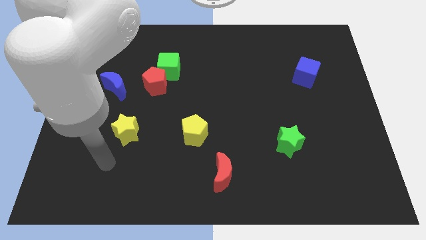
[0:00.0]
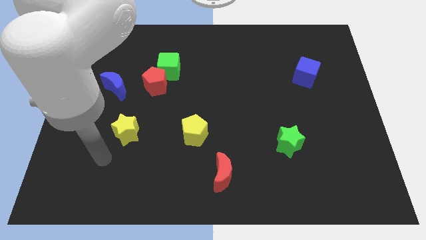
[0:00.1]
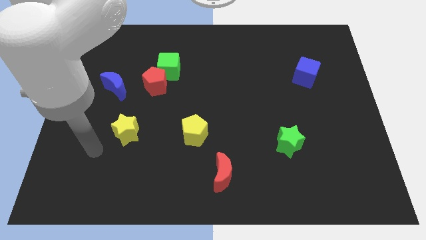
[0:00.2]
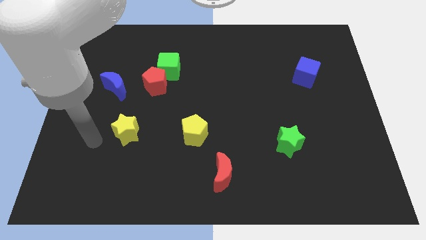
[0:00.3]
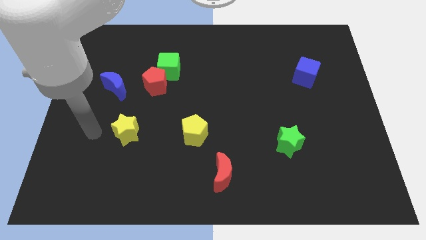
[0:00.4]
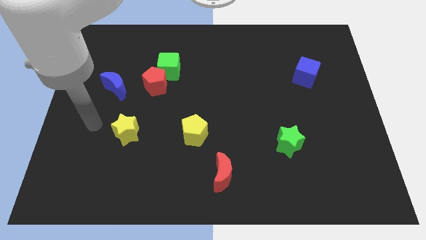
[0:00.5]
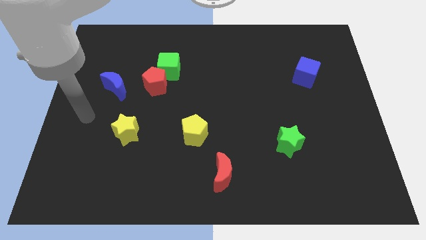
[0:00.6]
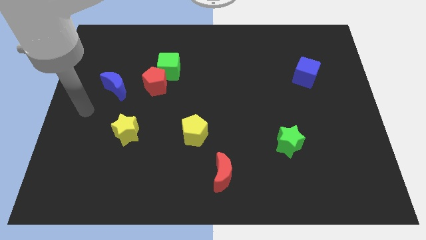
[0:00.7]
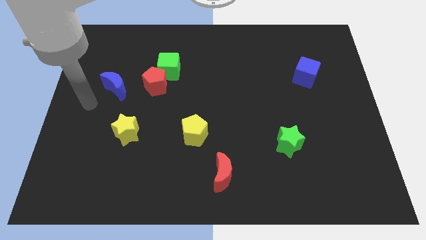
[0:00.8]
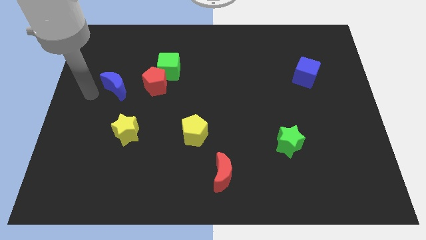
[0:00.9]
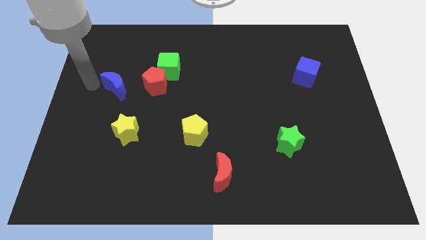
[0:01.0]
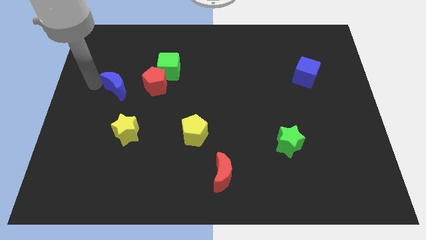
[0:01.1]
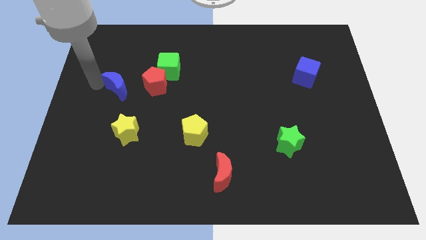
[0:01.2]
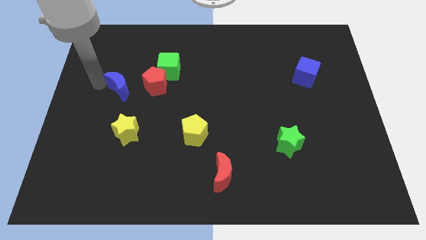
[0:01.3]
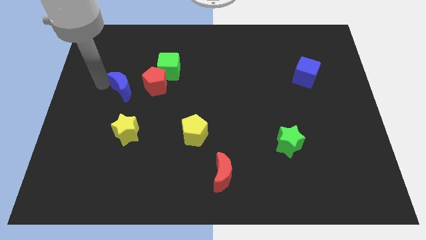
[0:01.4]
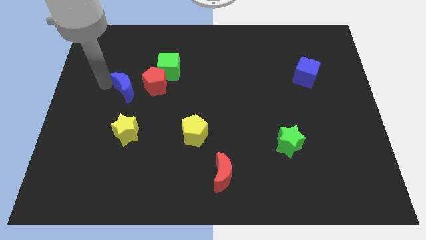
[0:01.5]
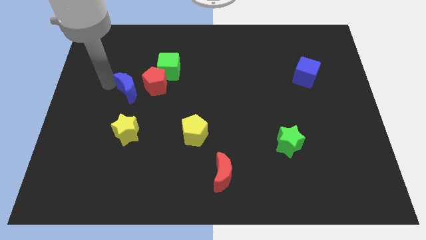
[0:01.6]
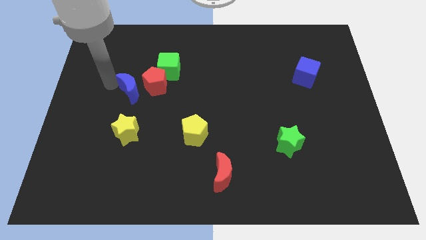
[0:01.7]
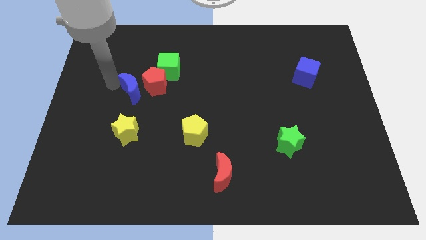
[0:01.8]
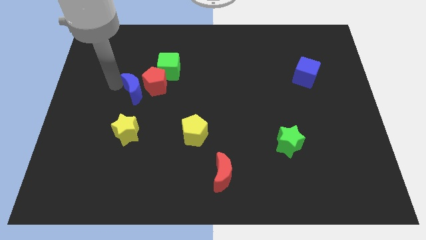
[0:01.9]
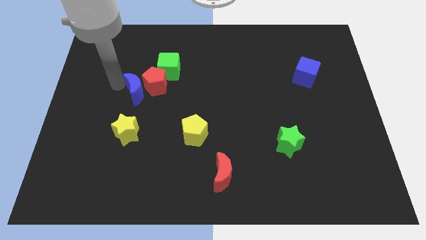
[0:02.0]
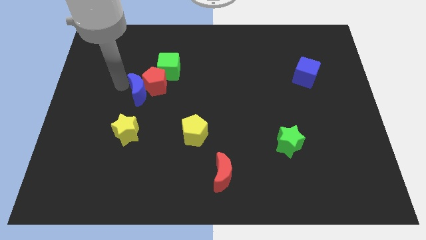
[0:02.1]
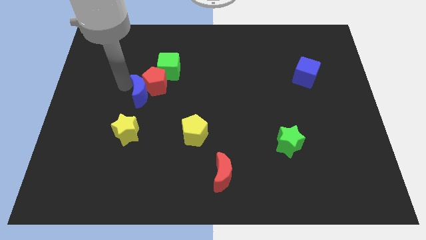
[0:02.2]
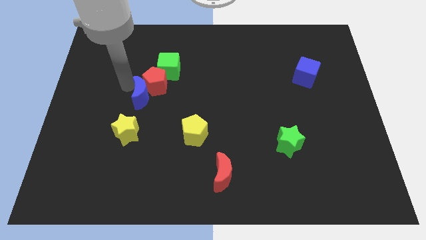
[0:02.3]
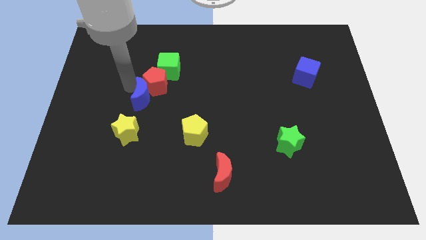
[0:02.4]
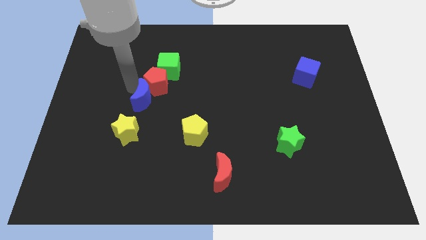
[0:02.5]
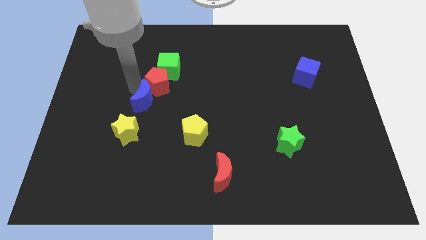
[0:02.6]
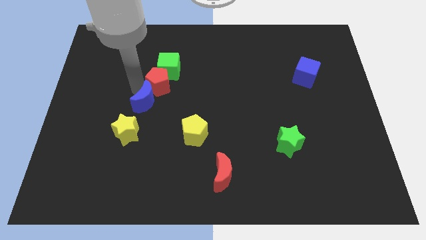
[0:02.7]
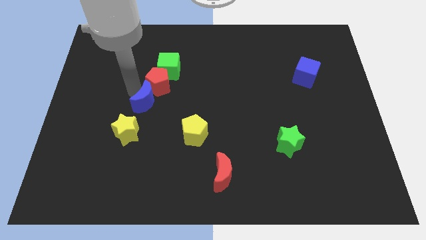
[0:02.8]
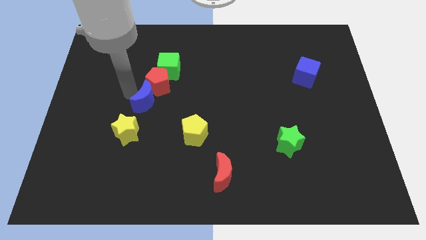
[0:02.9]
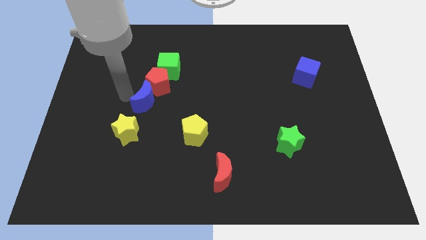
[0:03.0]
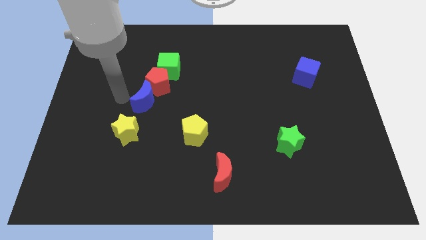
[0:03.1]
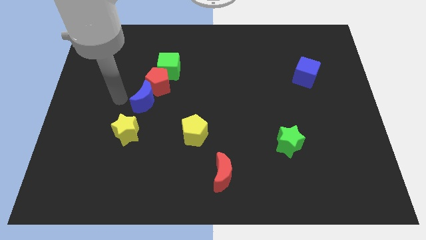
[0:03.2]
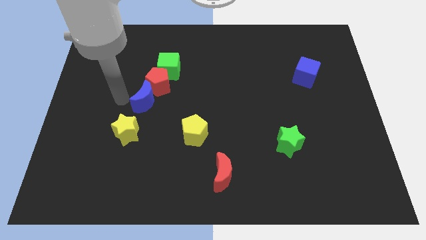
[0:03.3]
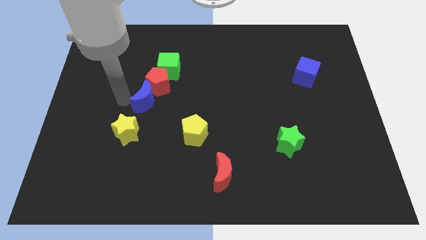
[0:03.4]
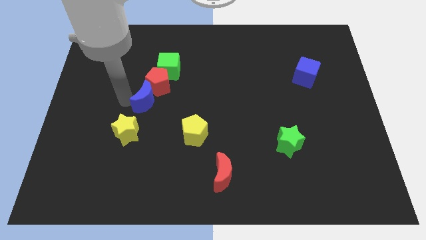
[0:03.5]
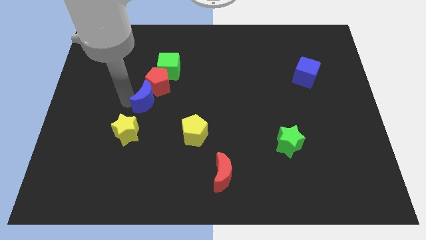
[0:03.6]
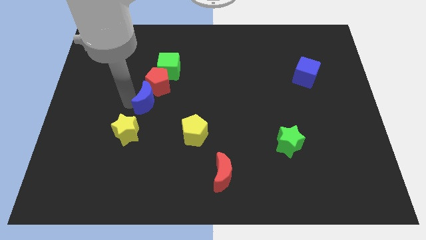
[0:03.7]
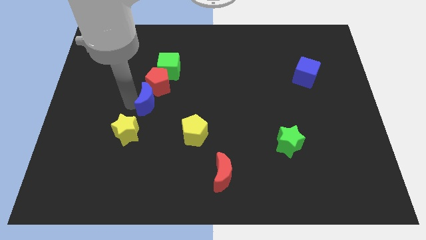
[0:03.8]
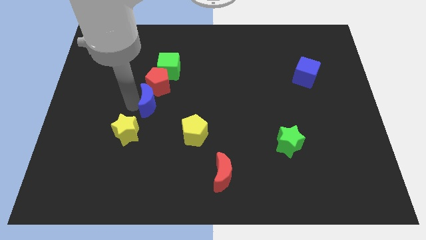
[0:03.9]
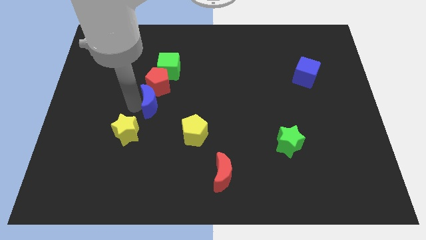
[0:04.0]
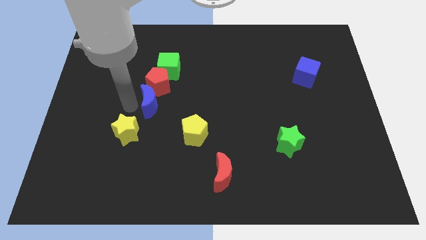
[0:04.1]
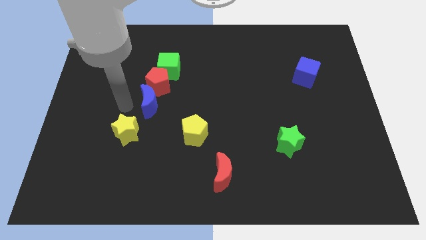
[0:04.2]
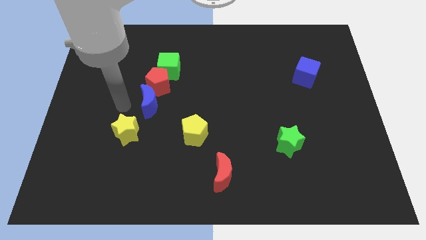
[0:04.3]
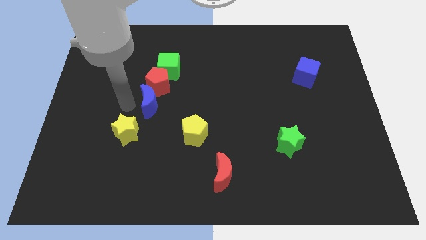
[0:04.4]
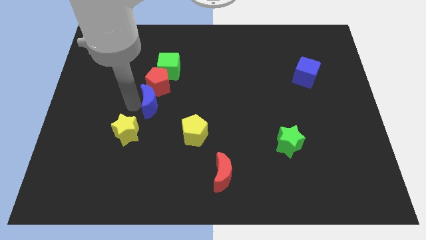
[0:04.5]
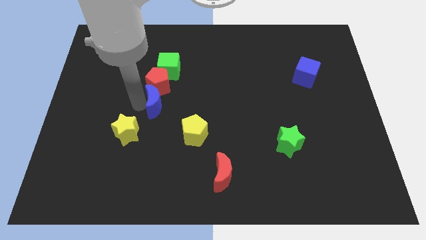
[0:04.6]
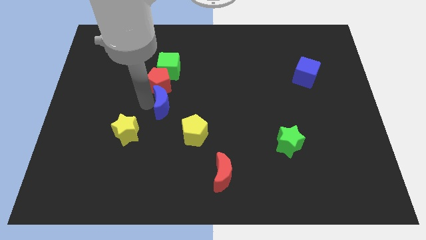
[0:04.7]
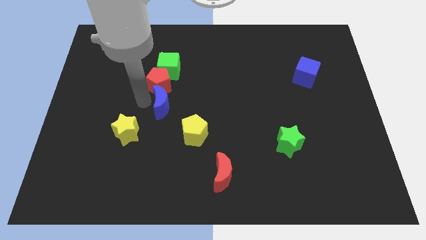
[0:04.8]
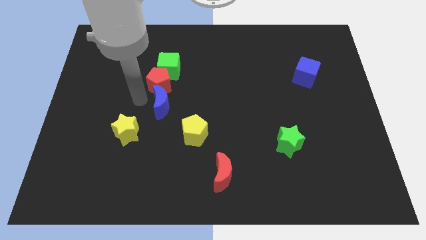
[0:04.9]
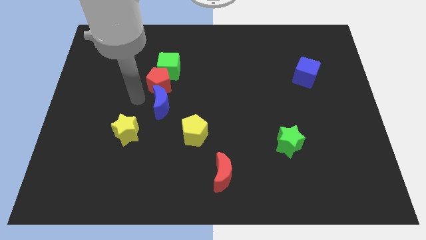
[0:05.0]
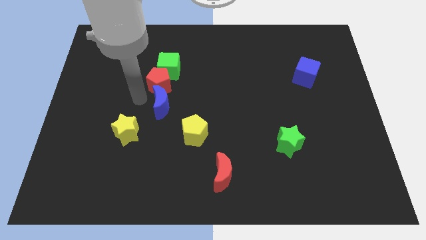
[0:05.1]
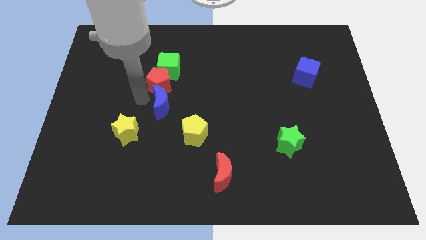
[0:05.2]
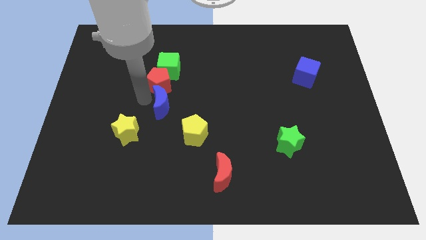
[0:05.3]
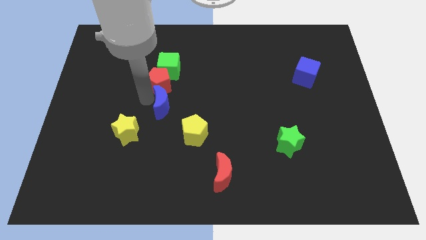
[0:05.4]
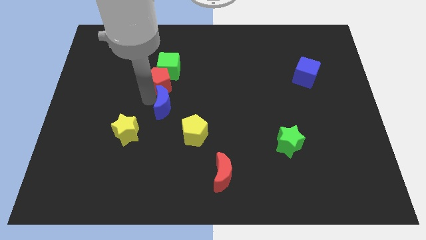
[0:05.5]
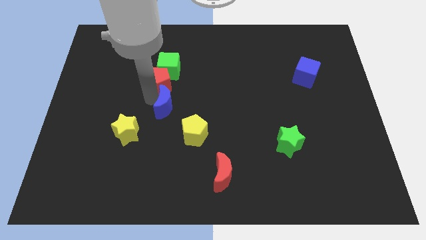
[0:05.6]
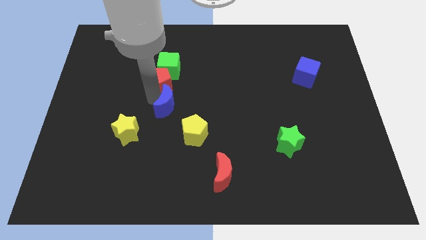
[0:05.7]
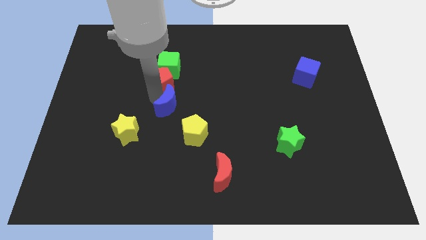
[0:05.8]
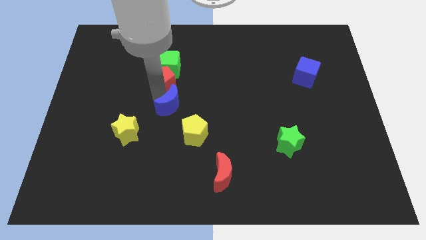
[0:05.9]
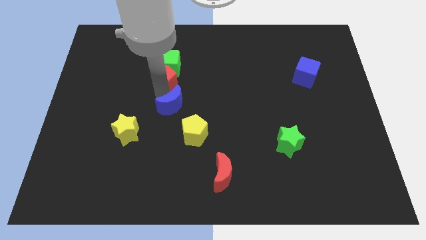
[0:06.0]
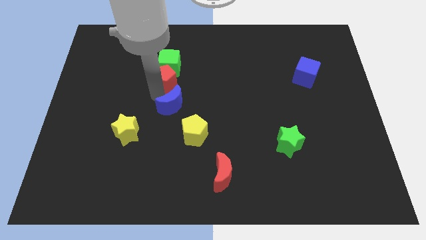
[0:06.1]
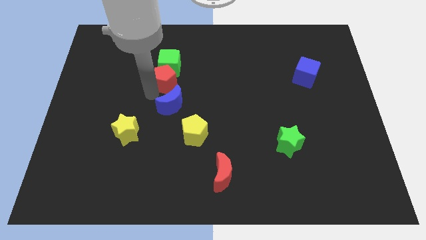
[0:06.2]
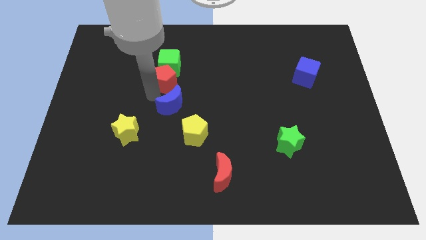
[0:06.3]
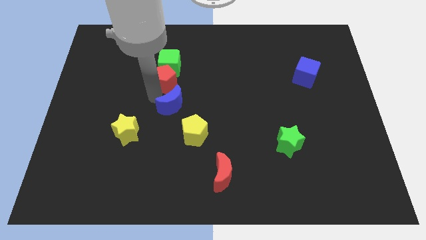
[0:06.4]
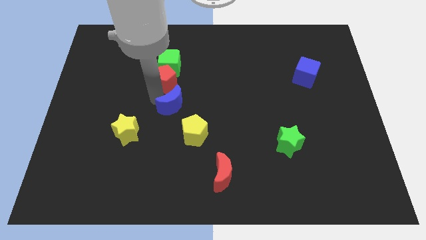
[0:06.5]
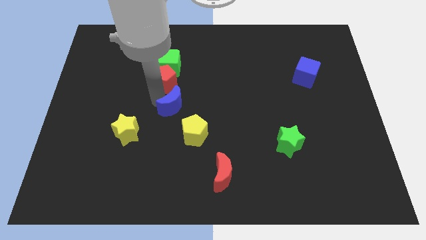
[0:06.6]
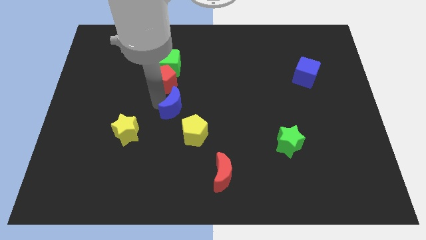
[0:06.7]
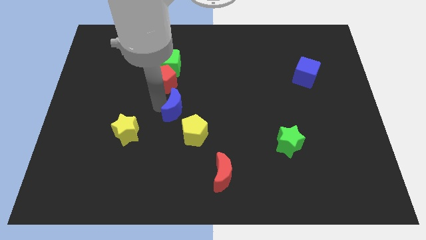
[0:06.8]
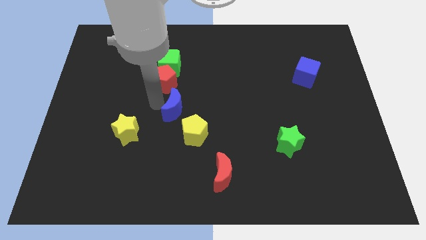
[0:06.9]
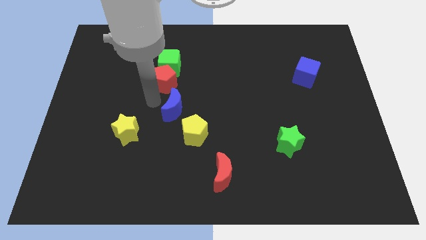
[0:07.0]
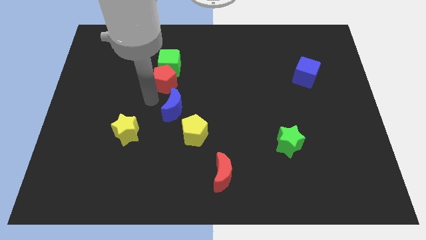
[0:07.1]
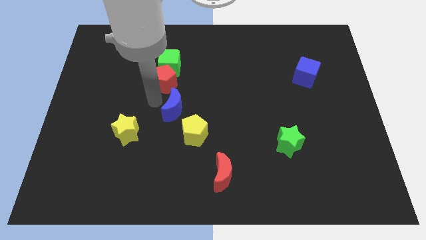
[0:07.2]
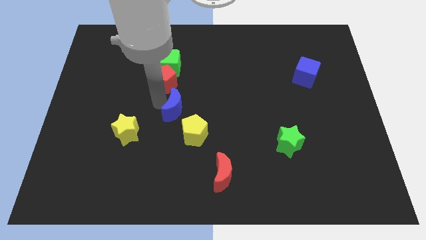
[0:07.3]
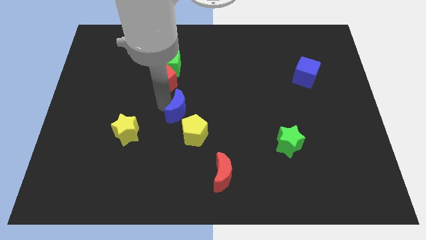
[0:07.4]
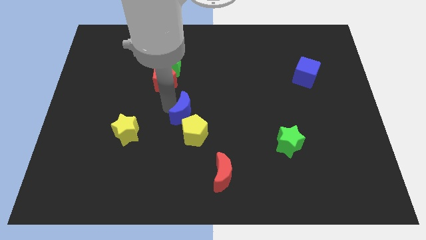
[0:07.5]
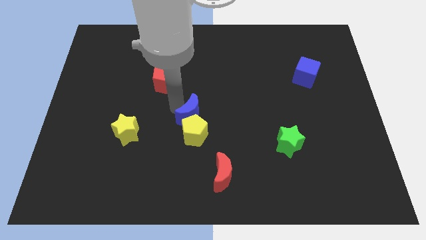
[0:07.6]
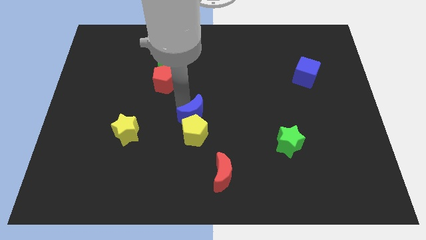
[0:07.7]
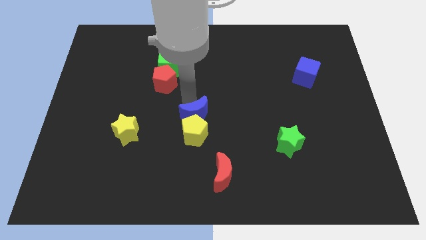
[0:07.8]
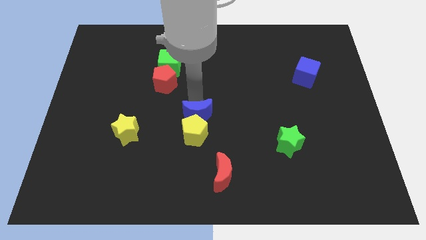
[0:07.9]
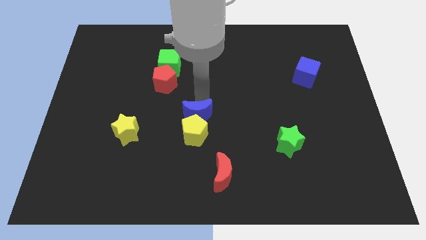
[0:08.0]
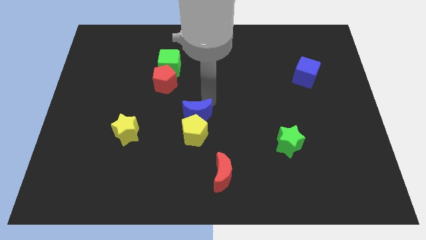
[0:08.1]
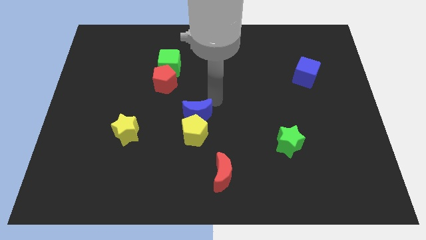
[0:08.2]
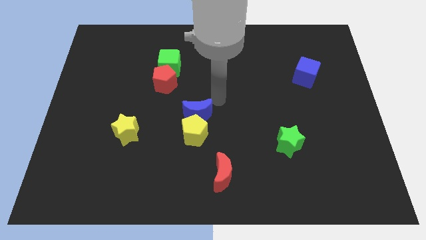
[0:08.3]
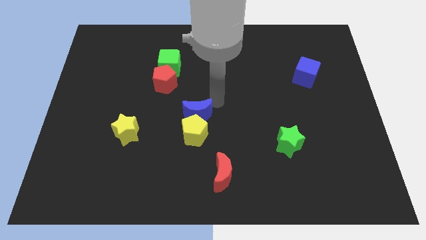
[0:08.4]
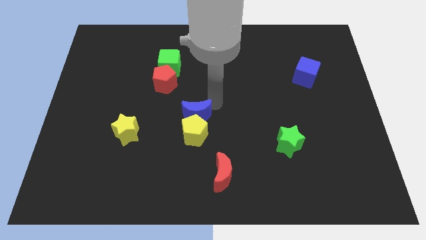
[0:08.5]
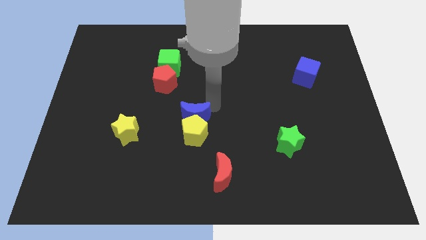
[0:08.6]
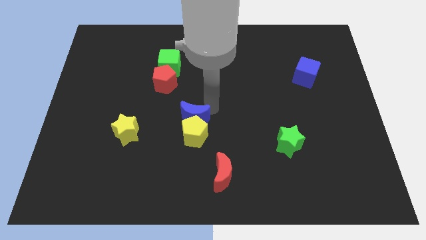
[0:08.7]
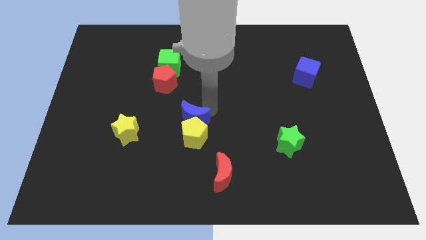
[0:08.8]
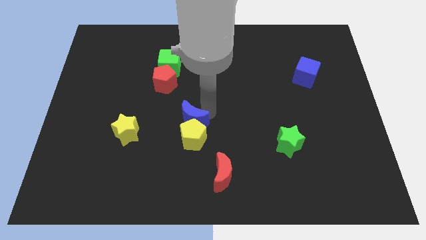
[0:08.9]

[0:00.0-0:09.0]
put the blue moon to the right of the yellow star
